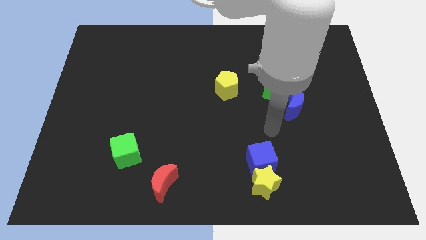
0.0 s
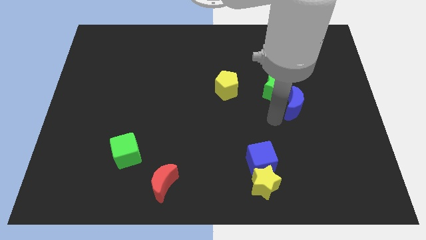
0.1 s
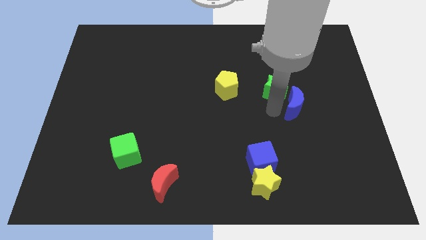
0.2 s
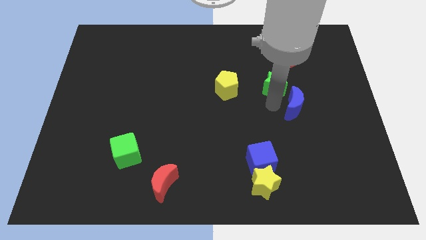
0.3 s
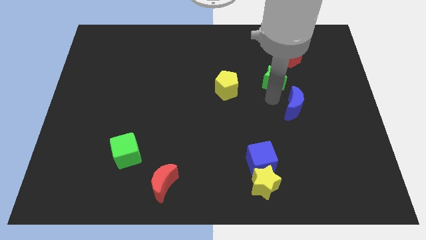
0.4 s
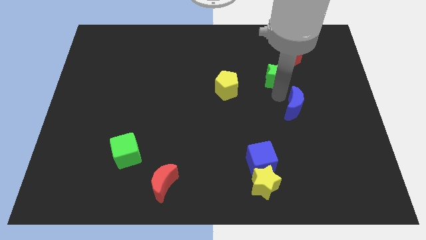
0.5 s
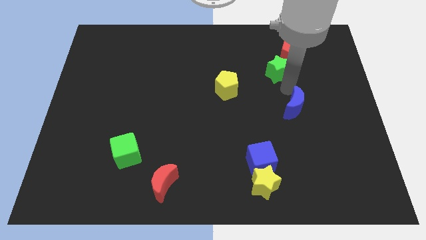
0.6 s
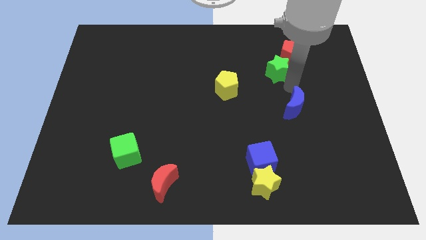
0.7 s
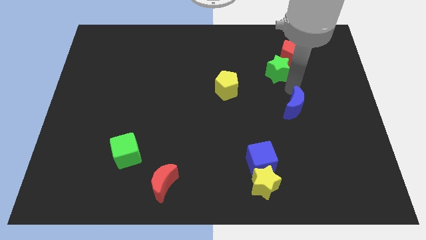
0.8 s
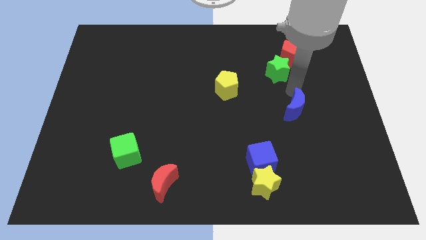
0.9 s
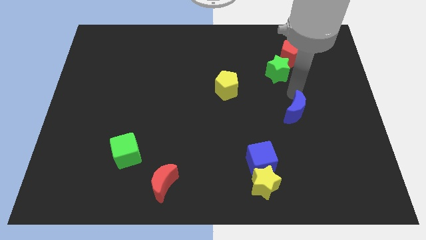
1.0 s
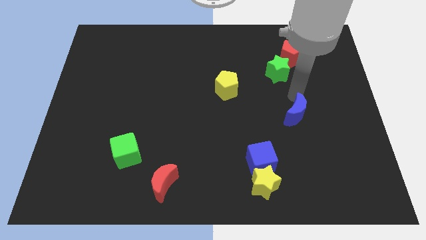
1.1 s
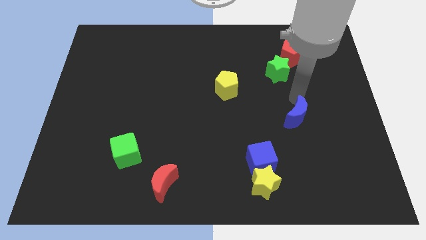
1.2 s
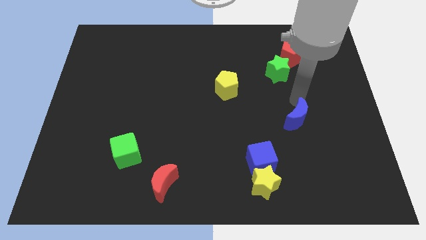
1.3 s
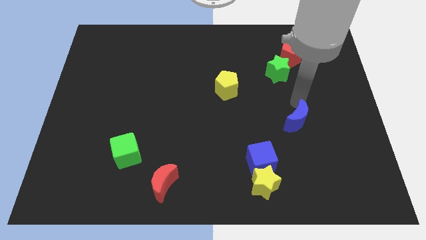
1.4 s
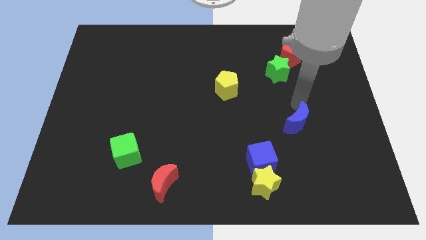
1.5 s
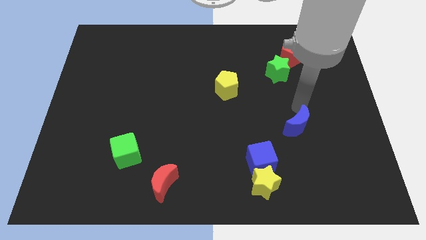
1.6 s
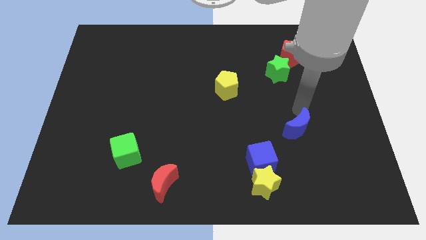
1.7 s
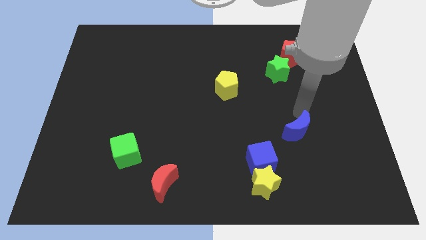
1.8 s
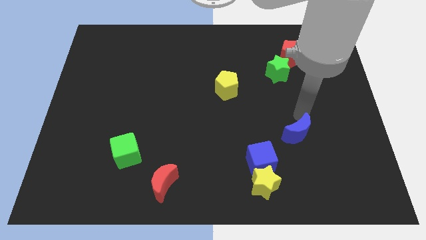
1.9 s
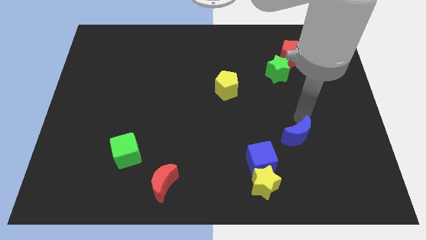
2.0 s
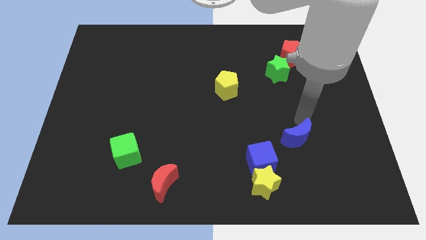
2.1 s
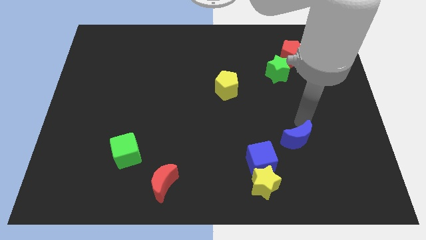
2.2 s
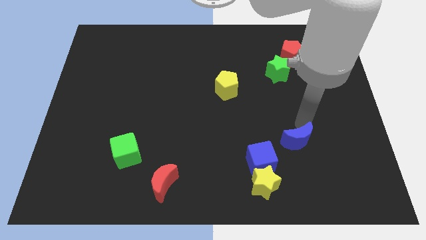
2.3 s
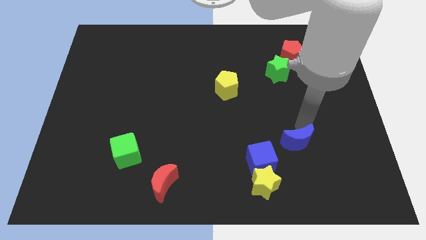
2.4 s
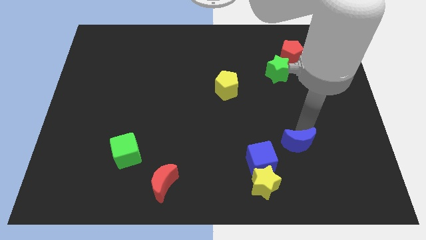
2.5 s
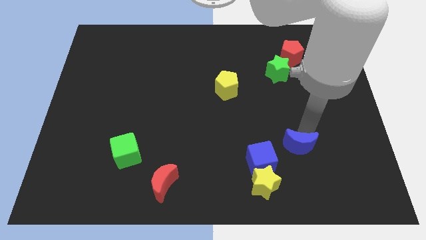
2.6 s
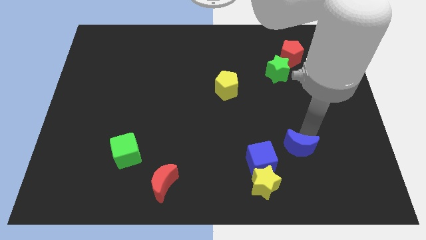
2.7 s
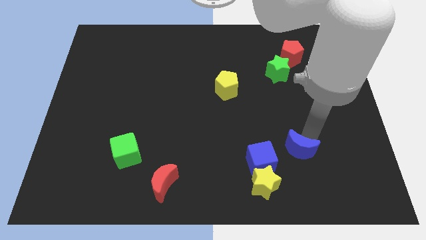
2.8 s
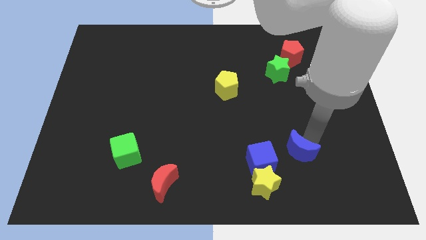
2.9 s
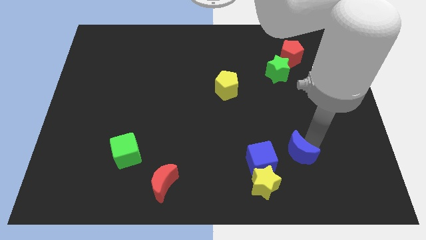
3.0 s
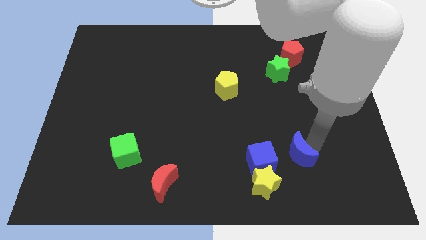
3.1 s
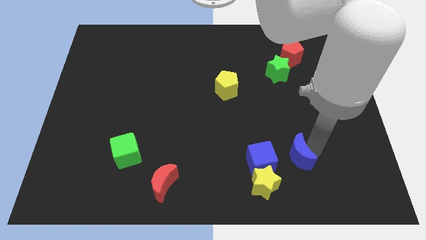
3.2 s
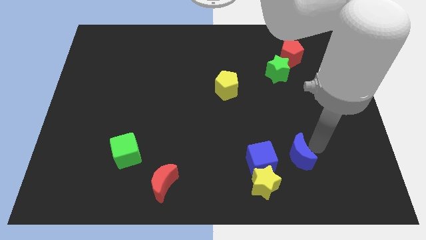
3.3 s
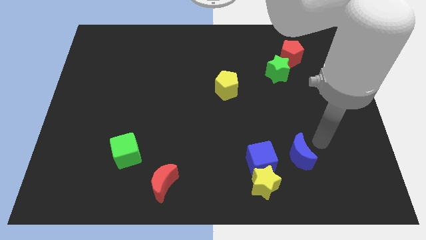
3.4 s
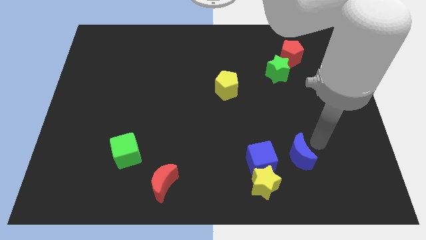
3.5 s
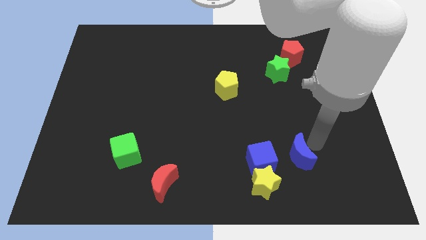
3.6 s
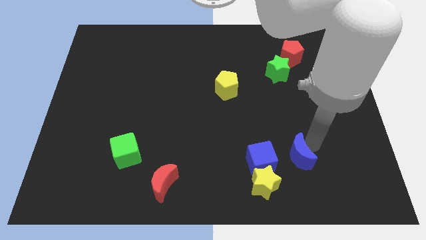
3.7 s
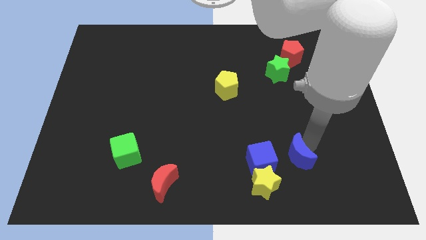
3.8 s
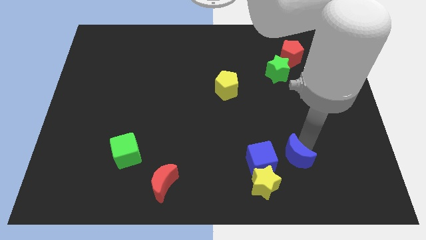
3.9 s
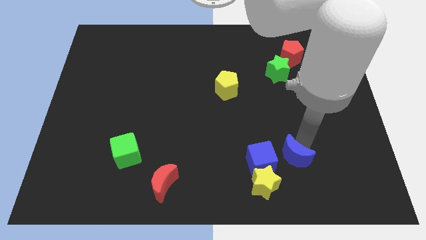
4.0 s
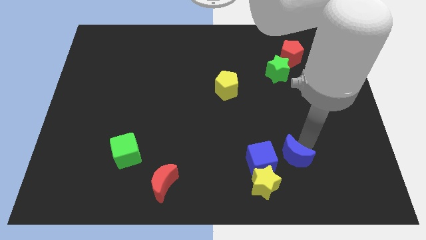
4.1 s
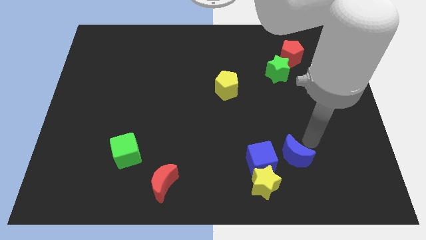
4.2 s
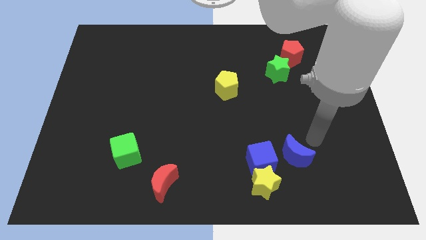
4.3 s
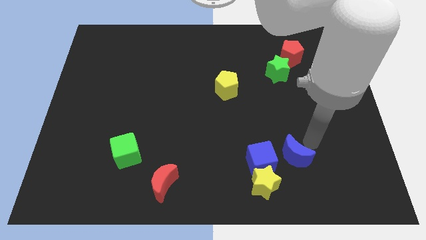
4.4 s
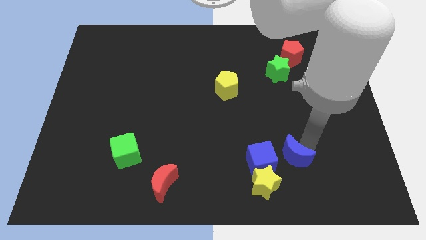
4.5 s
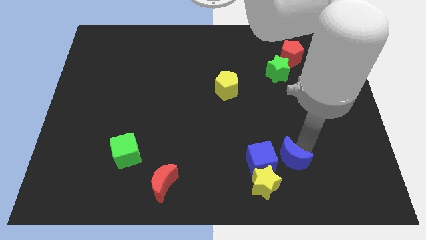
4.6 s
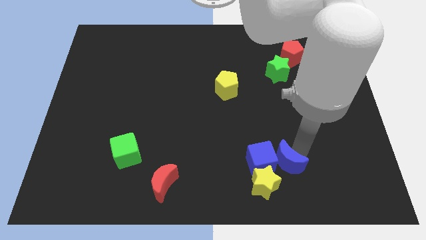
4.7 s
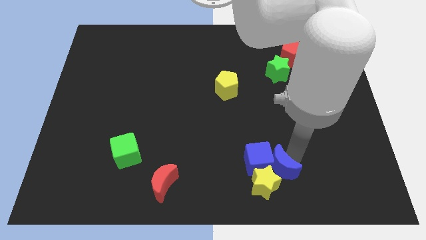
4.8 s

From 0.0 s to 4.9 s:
put the blue moon towards the yellow star

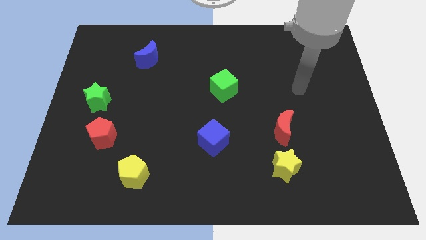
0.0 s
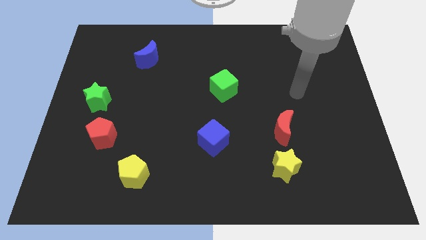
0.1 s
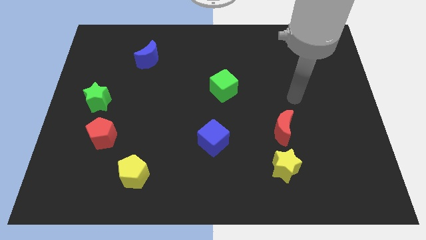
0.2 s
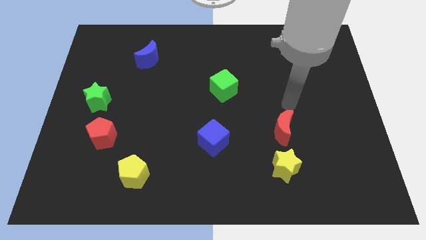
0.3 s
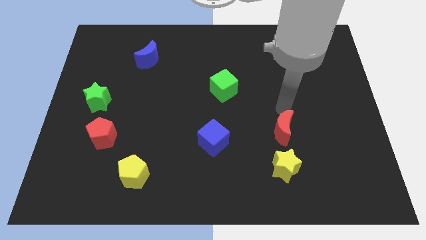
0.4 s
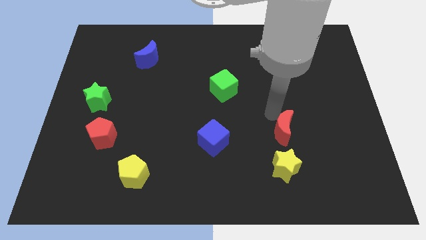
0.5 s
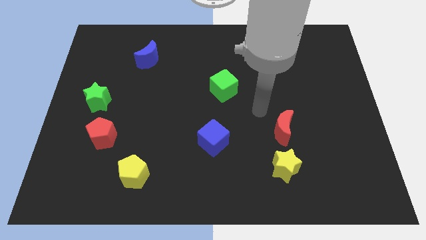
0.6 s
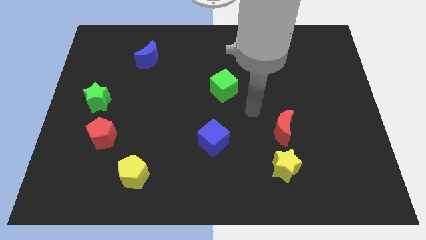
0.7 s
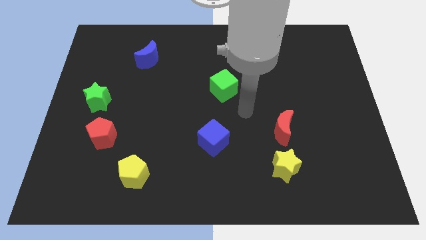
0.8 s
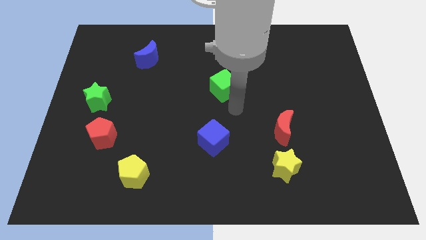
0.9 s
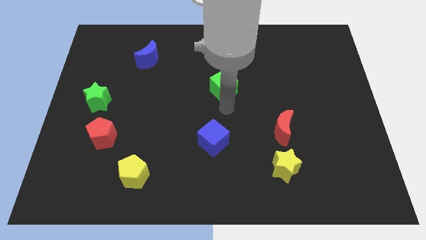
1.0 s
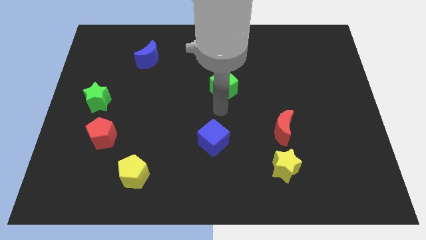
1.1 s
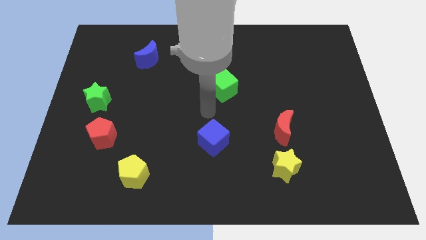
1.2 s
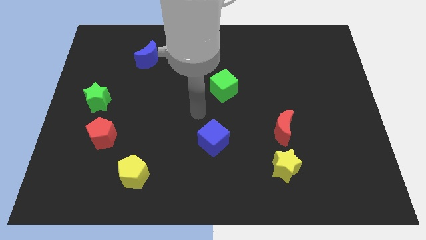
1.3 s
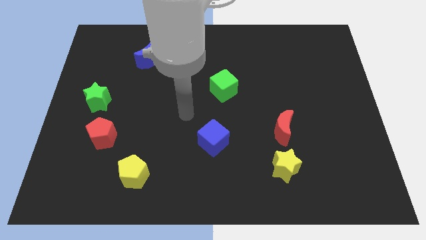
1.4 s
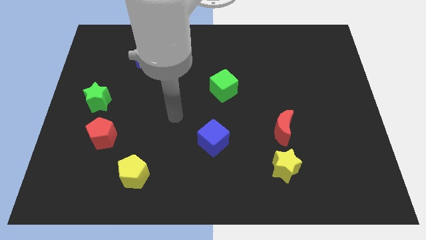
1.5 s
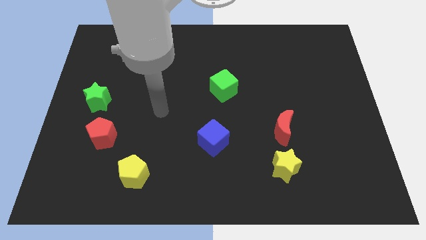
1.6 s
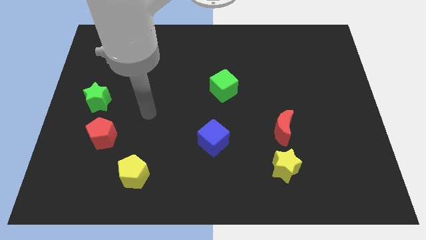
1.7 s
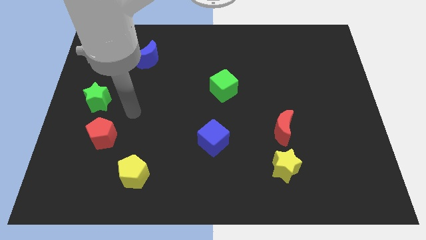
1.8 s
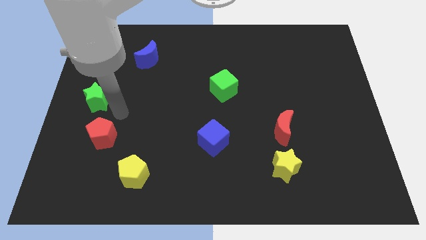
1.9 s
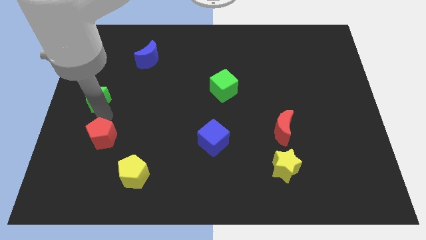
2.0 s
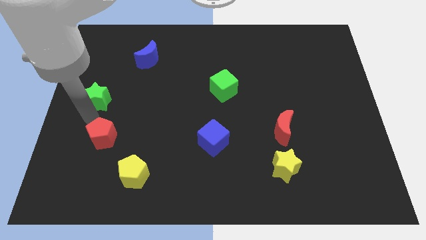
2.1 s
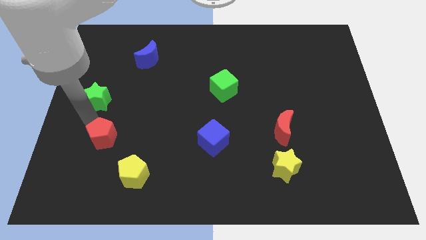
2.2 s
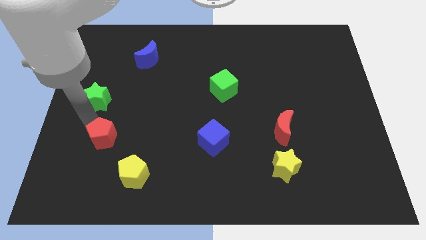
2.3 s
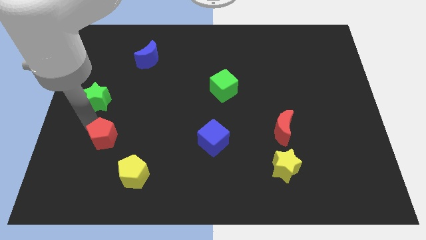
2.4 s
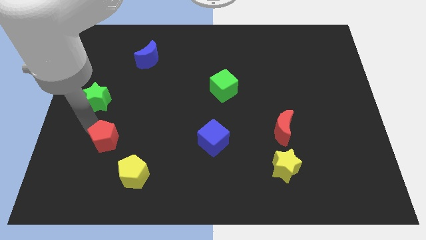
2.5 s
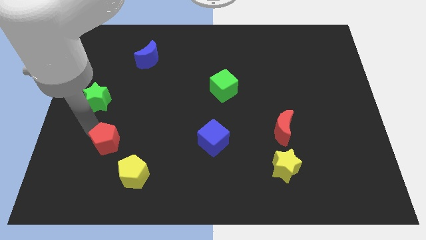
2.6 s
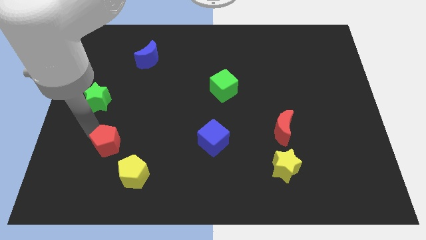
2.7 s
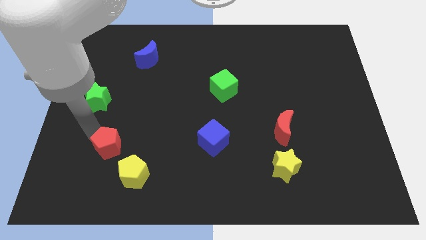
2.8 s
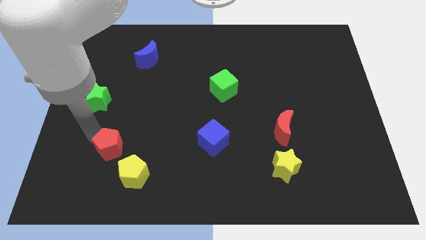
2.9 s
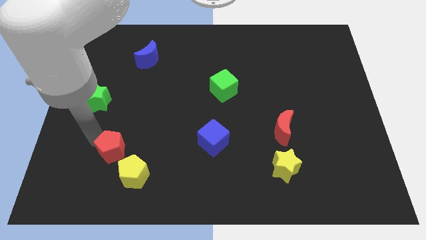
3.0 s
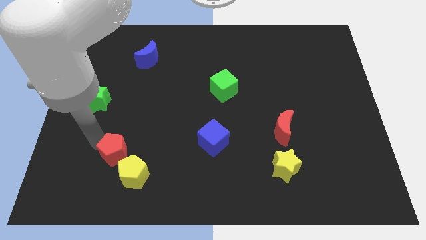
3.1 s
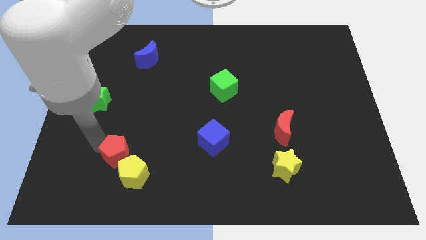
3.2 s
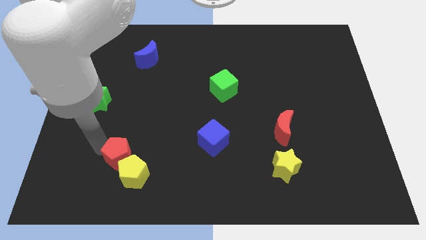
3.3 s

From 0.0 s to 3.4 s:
slide the red pentagon next to the yellow pentagon
